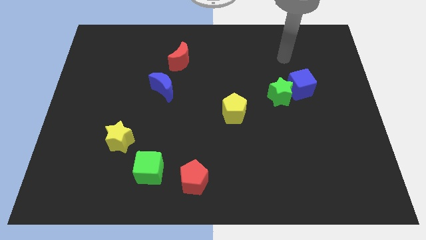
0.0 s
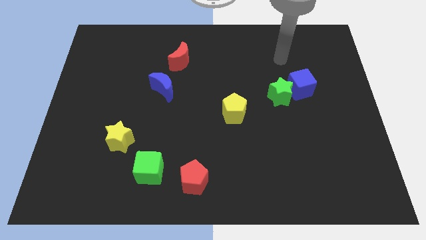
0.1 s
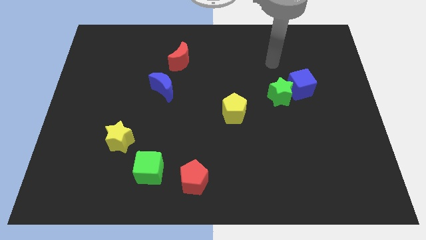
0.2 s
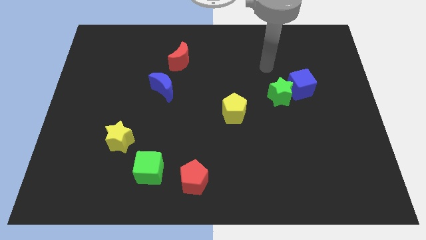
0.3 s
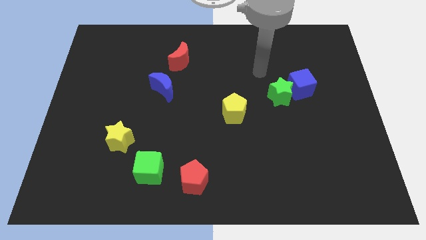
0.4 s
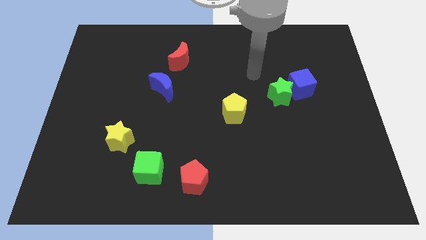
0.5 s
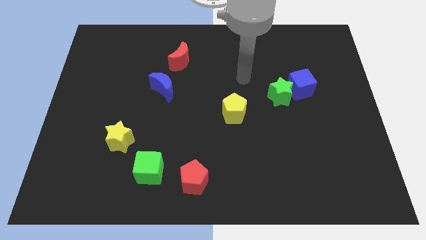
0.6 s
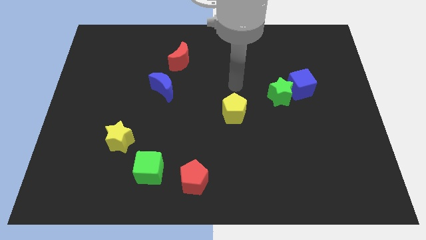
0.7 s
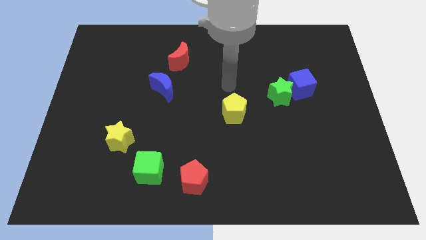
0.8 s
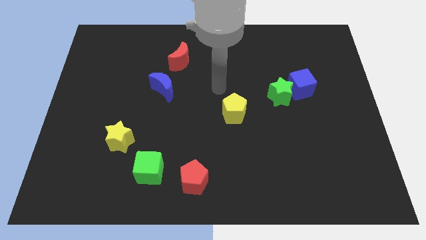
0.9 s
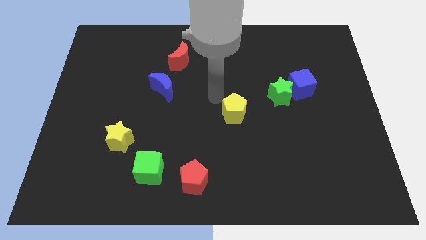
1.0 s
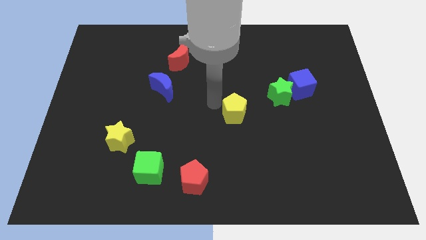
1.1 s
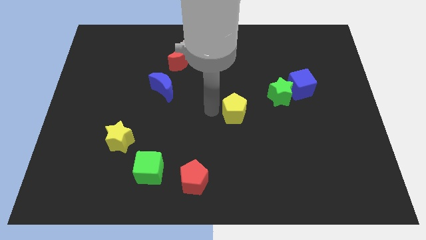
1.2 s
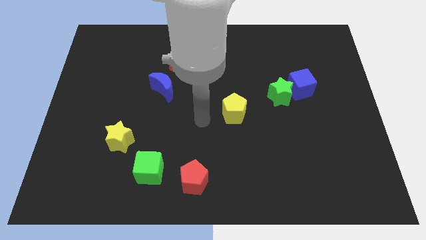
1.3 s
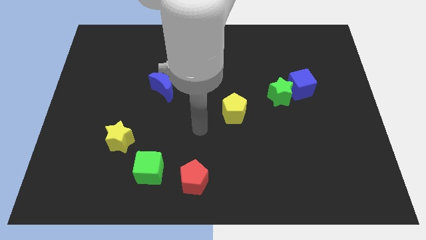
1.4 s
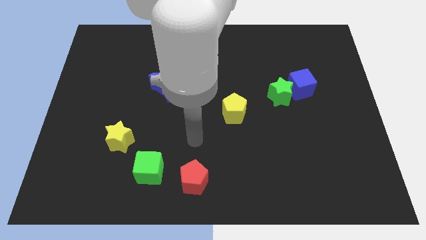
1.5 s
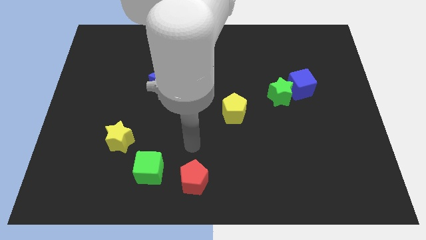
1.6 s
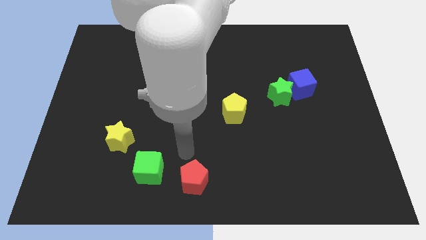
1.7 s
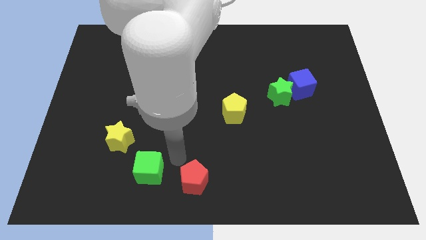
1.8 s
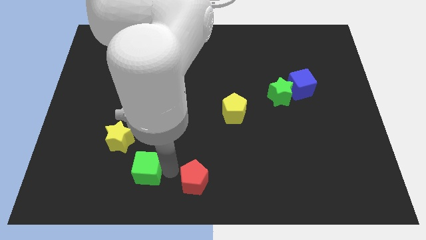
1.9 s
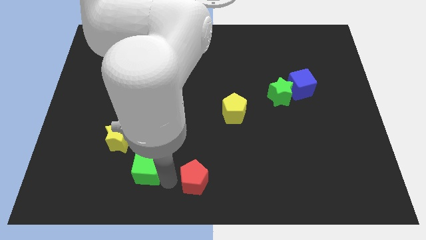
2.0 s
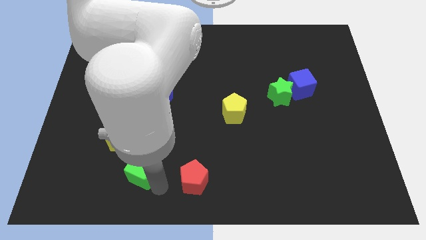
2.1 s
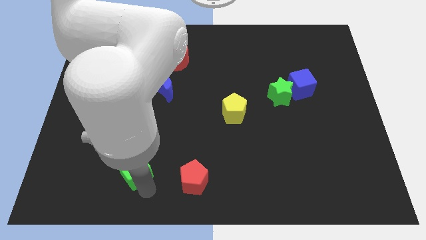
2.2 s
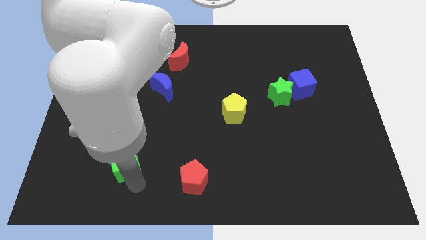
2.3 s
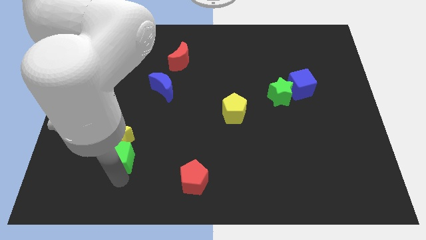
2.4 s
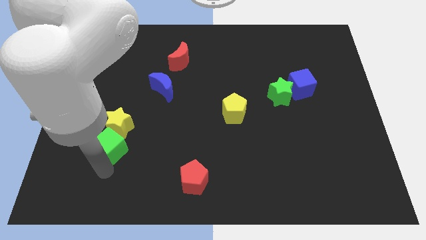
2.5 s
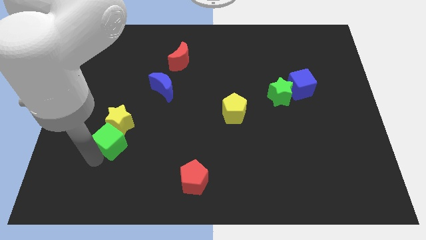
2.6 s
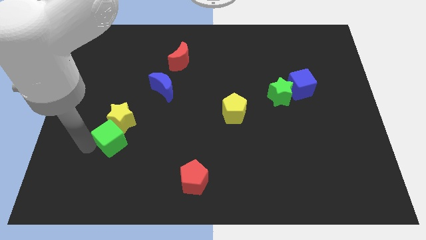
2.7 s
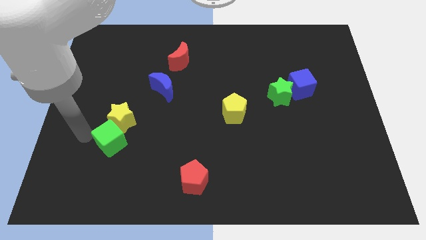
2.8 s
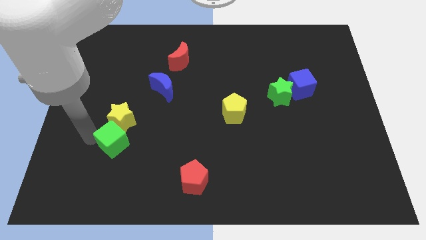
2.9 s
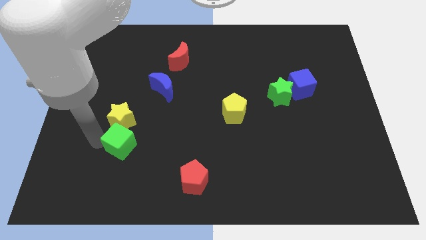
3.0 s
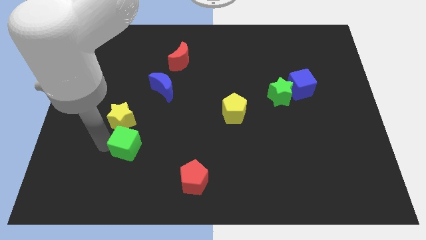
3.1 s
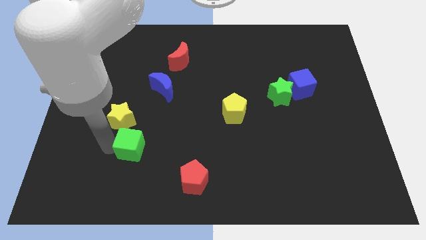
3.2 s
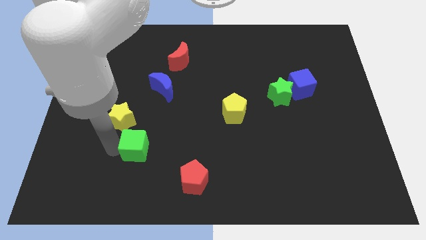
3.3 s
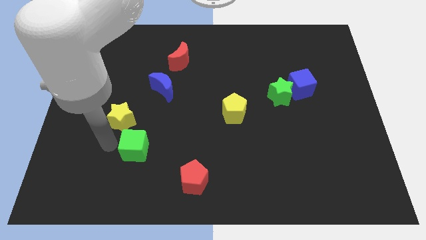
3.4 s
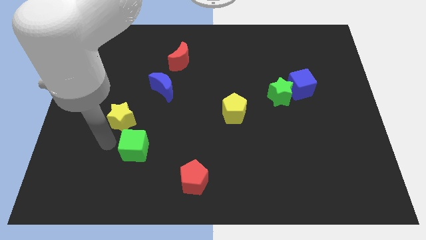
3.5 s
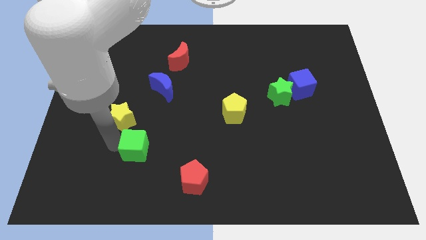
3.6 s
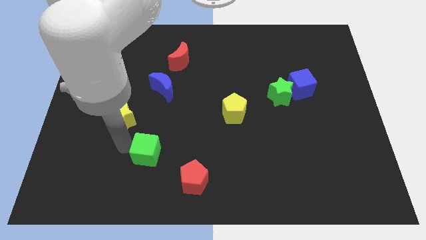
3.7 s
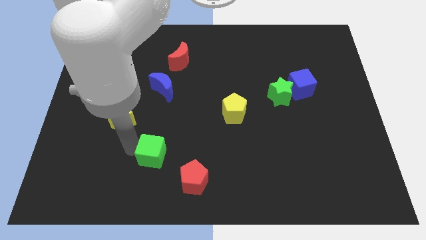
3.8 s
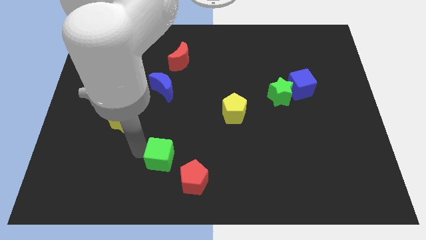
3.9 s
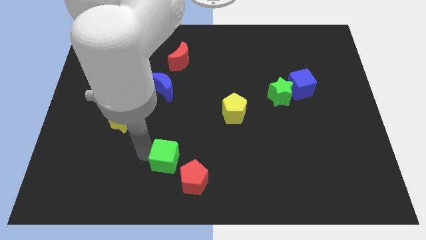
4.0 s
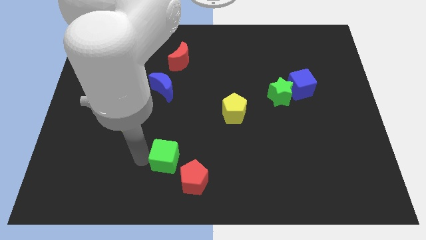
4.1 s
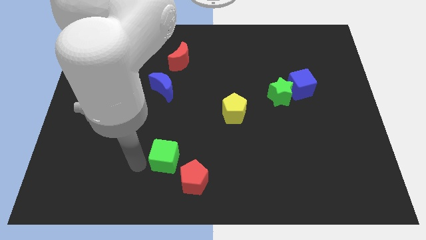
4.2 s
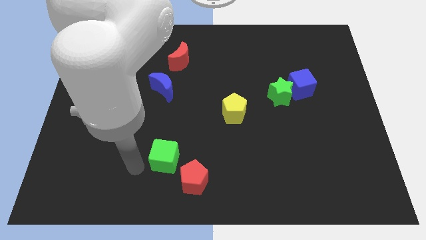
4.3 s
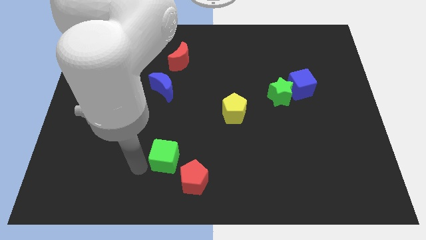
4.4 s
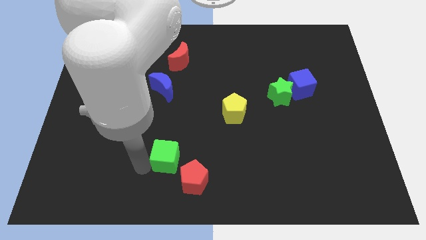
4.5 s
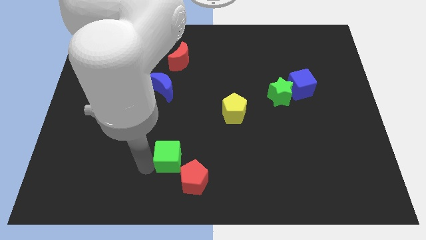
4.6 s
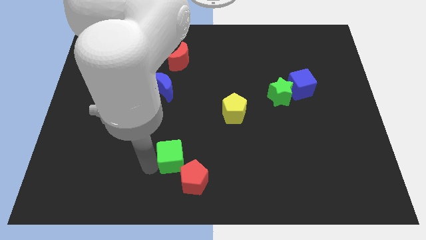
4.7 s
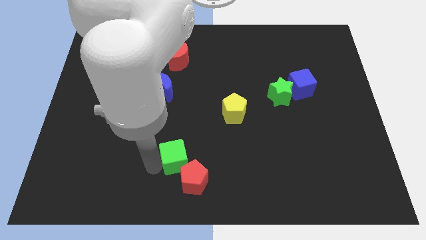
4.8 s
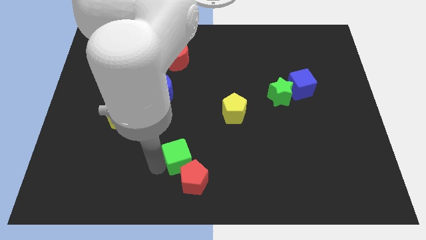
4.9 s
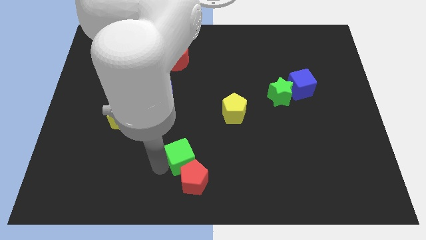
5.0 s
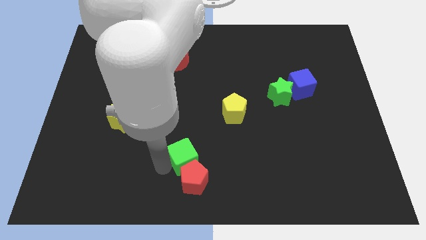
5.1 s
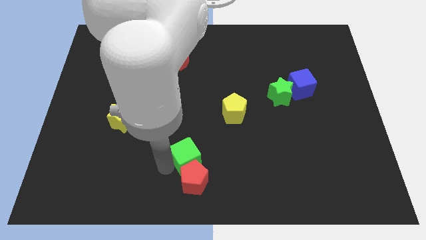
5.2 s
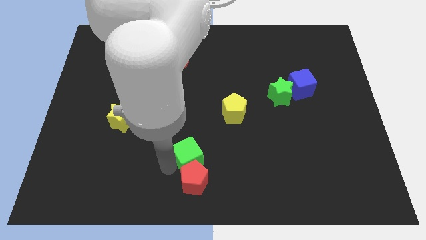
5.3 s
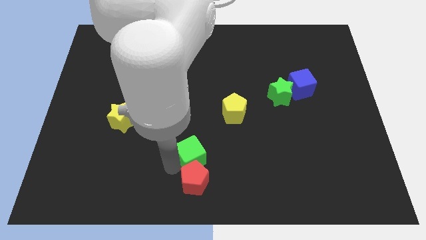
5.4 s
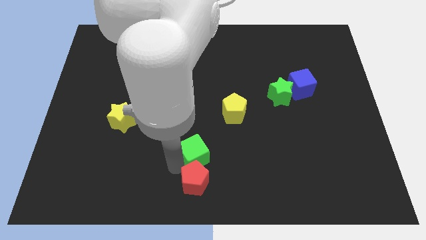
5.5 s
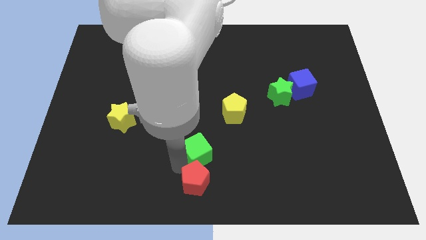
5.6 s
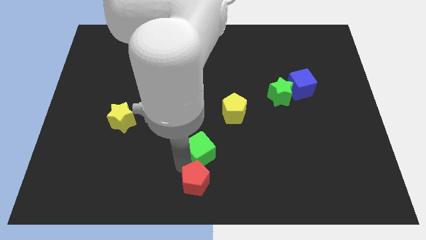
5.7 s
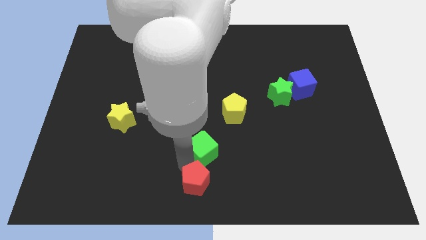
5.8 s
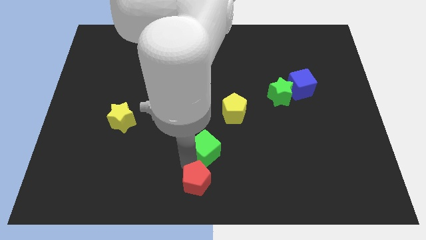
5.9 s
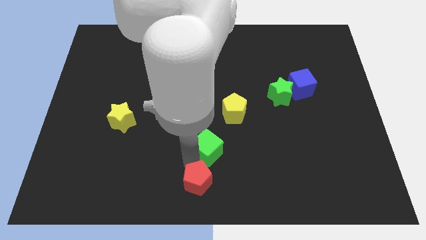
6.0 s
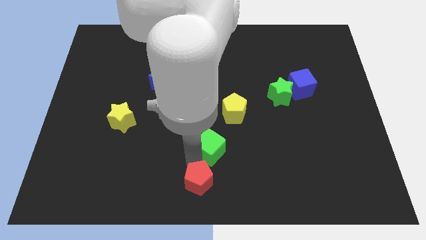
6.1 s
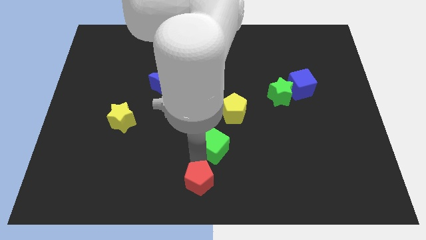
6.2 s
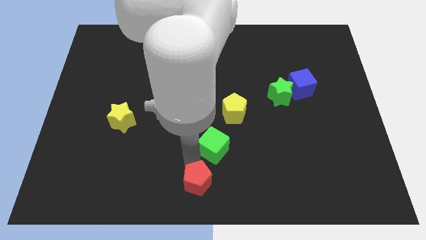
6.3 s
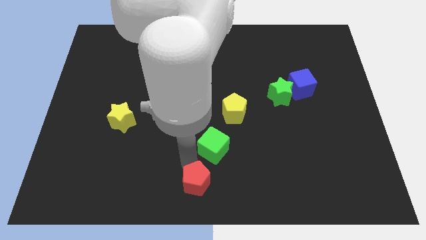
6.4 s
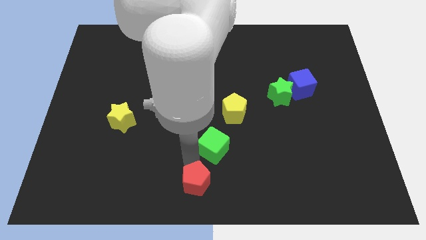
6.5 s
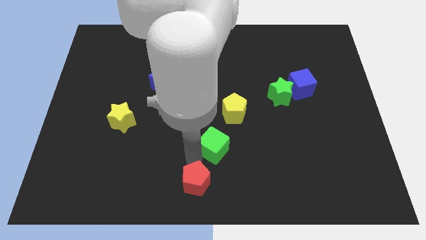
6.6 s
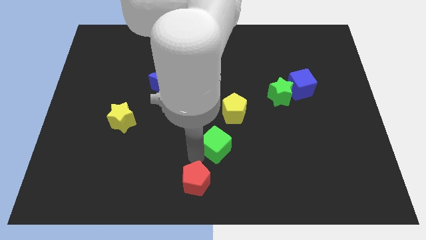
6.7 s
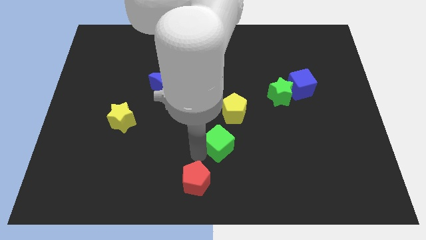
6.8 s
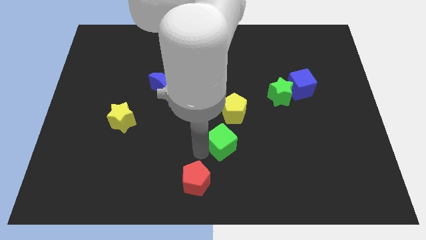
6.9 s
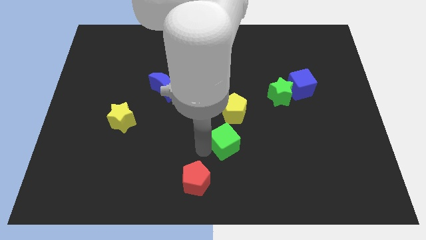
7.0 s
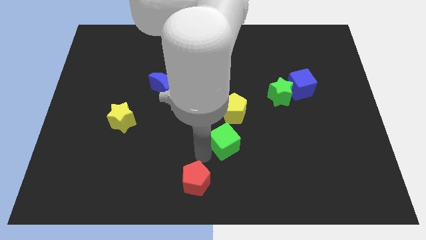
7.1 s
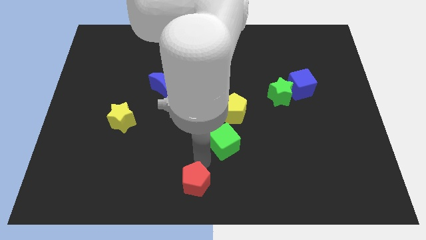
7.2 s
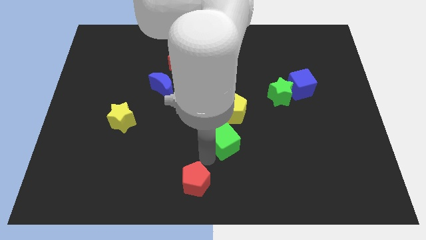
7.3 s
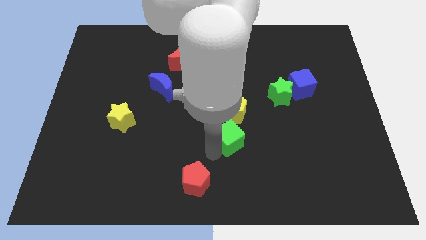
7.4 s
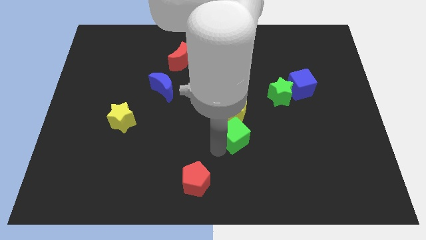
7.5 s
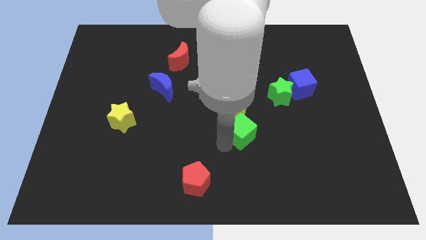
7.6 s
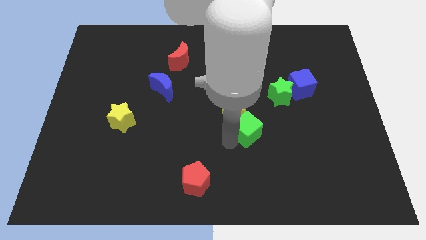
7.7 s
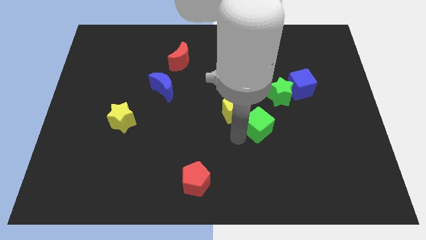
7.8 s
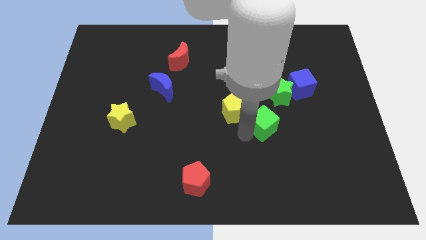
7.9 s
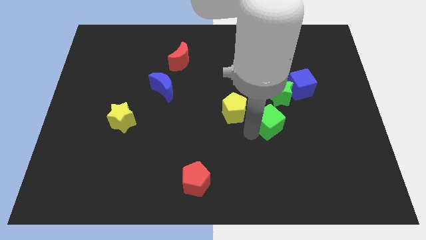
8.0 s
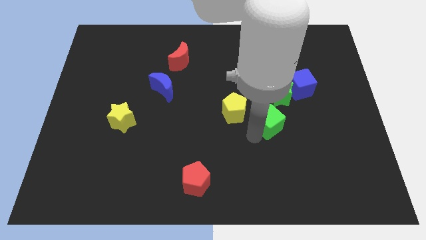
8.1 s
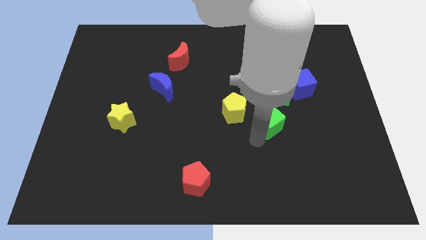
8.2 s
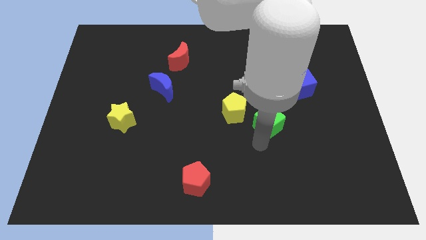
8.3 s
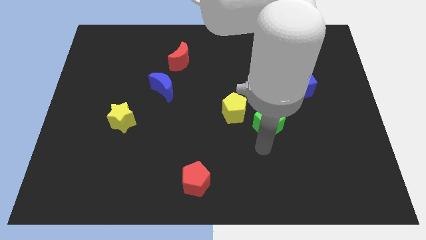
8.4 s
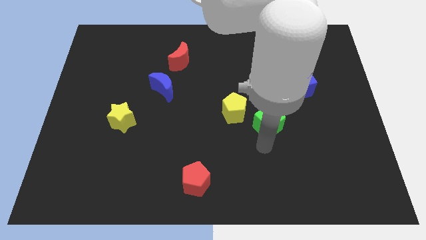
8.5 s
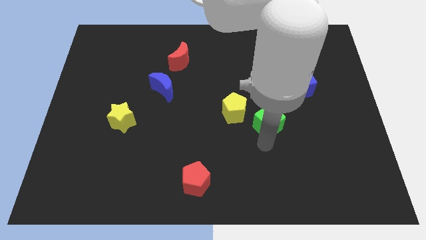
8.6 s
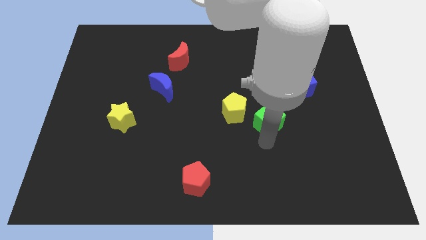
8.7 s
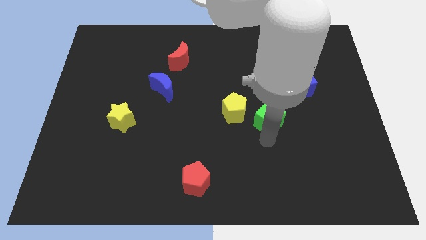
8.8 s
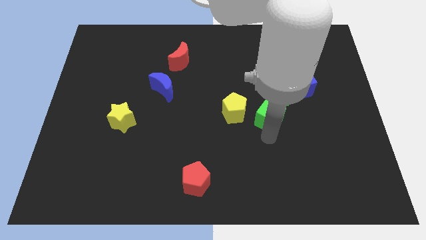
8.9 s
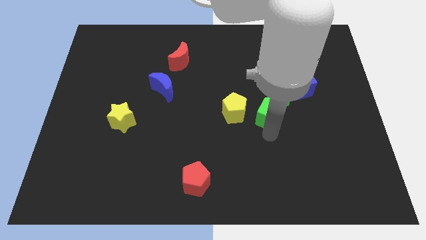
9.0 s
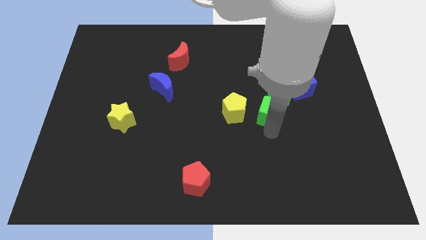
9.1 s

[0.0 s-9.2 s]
put the green cube to the green star
